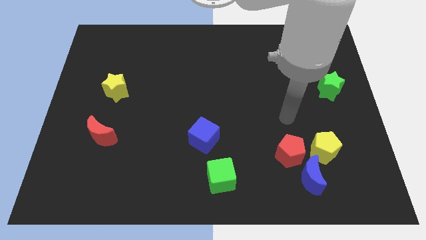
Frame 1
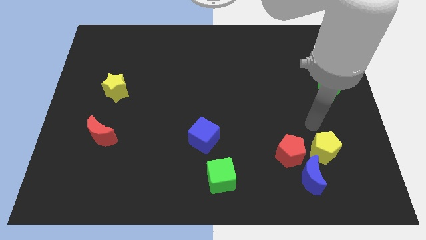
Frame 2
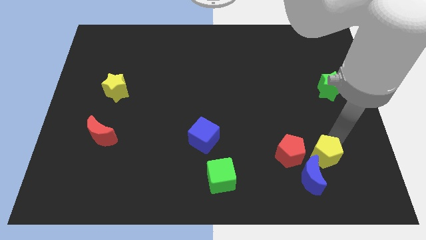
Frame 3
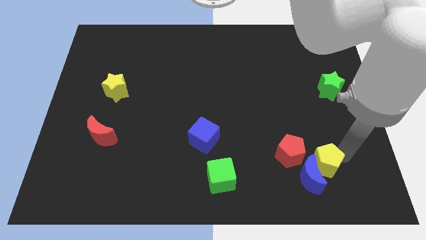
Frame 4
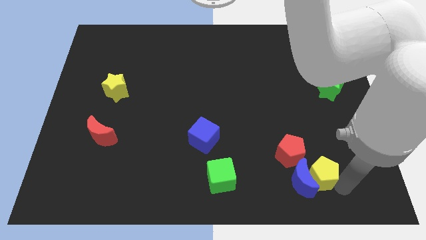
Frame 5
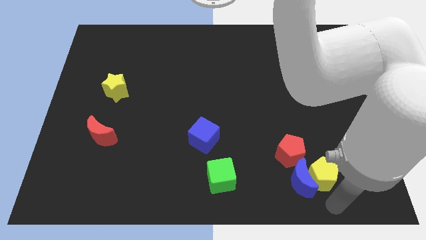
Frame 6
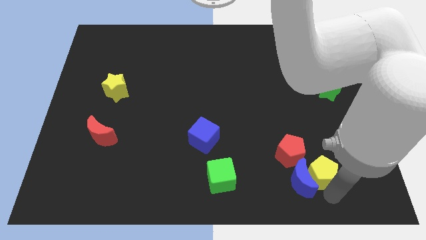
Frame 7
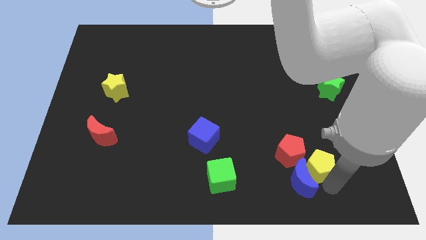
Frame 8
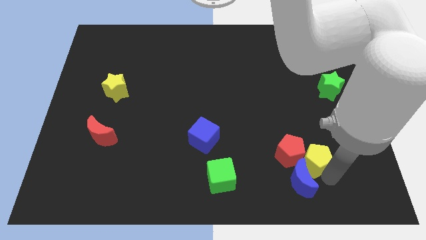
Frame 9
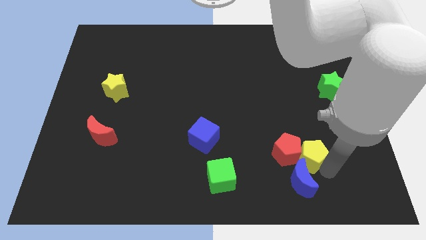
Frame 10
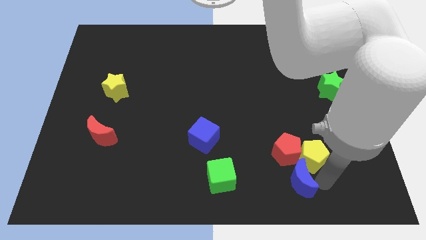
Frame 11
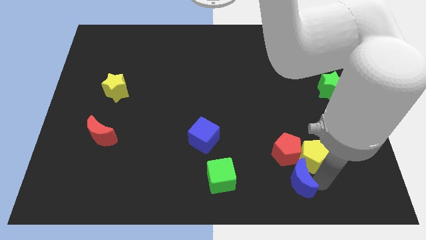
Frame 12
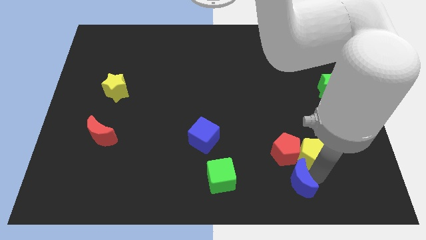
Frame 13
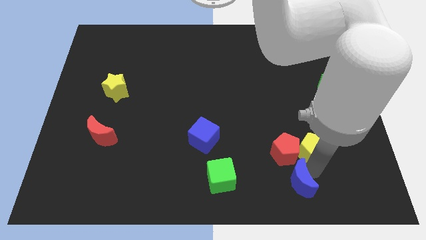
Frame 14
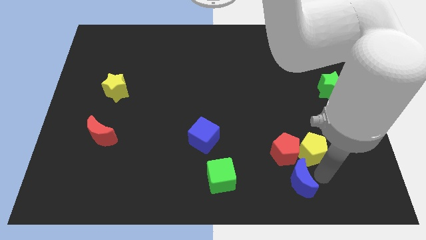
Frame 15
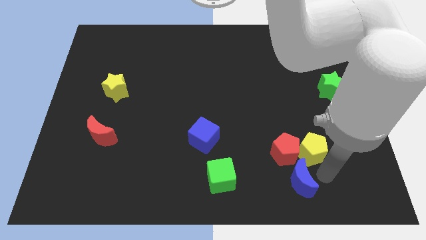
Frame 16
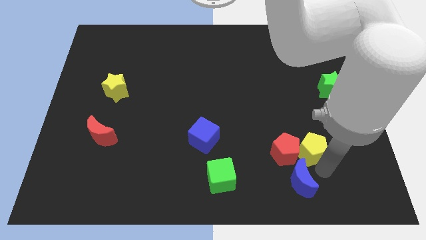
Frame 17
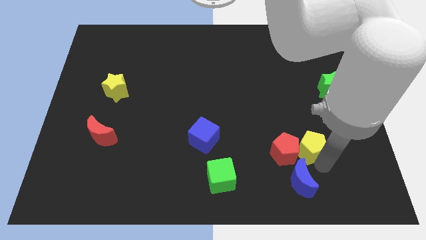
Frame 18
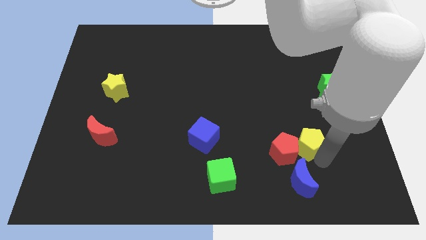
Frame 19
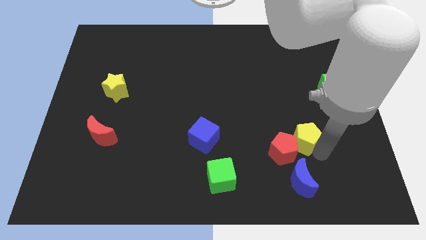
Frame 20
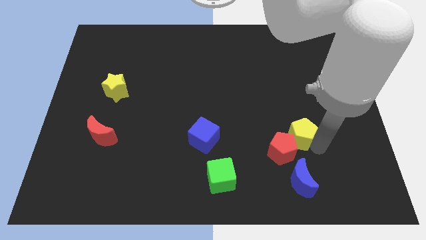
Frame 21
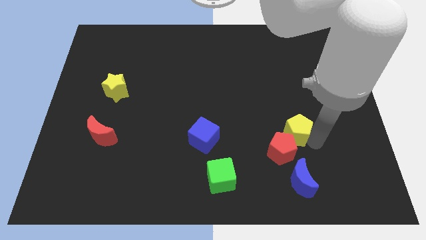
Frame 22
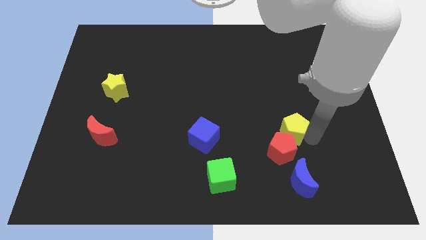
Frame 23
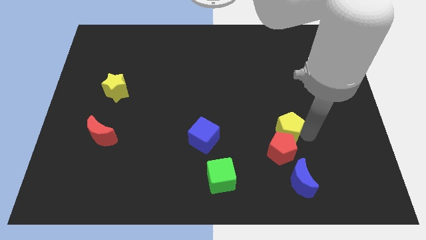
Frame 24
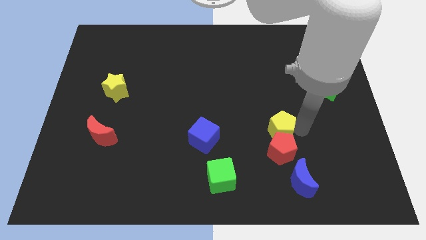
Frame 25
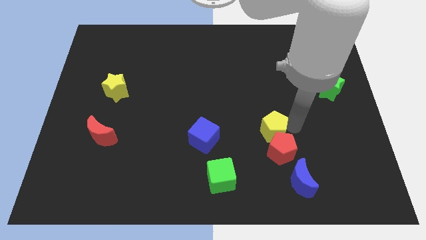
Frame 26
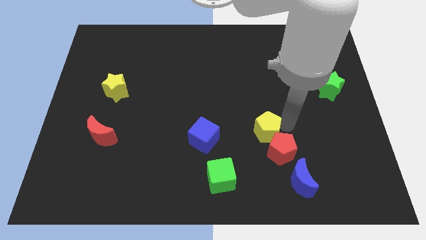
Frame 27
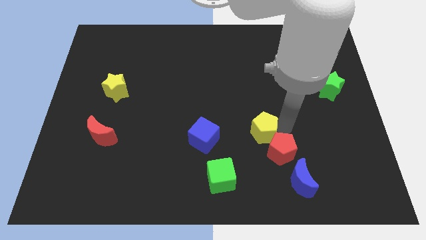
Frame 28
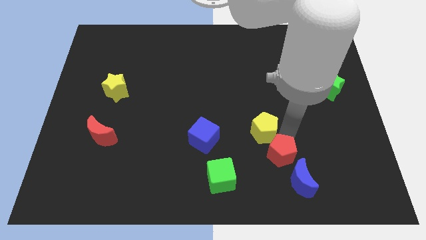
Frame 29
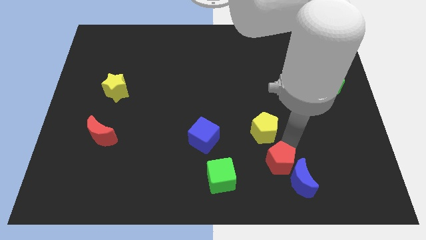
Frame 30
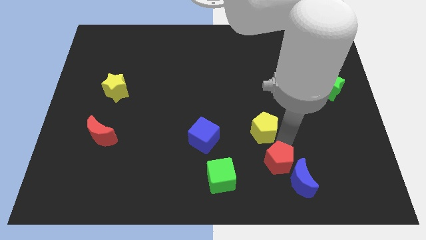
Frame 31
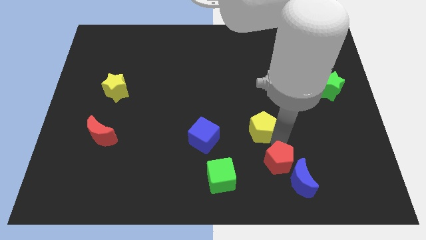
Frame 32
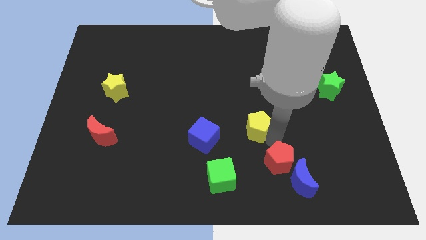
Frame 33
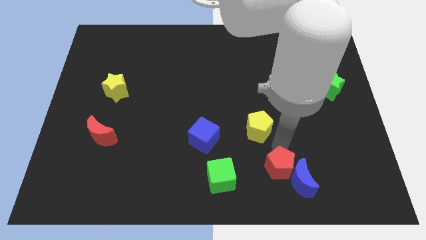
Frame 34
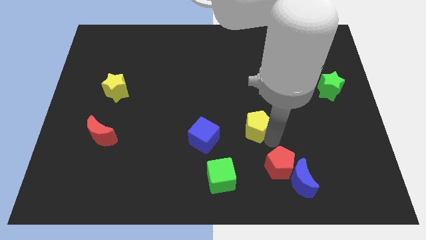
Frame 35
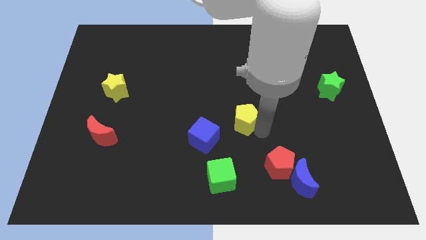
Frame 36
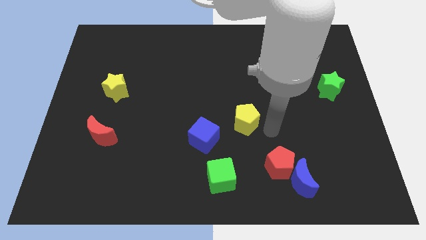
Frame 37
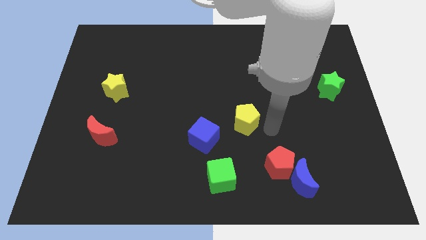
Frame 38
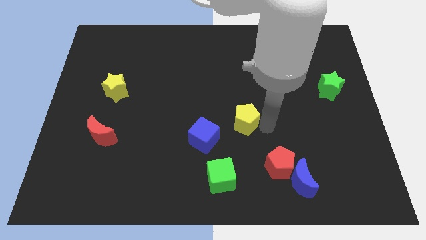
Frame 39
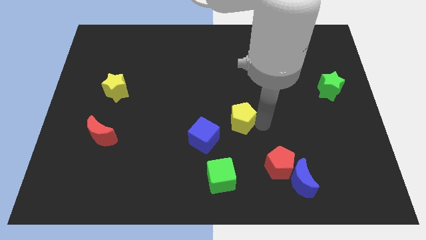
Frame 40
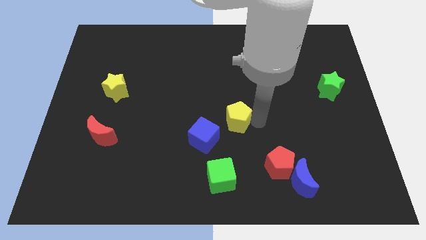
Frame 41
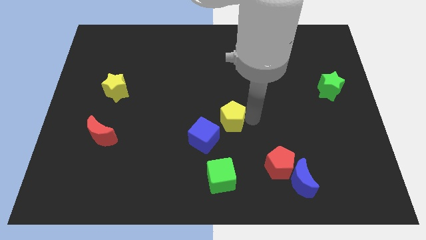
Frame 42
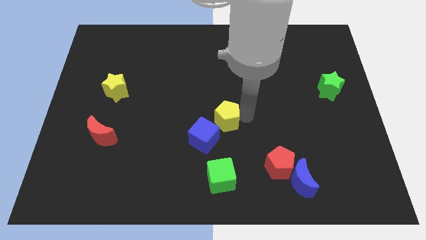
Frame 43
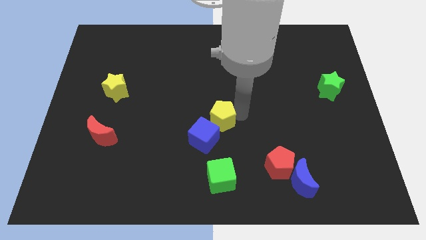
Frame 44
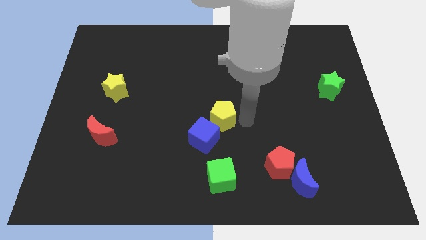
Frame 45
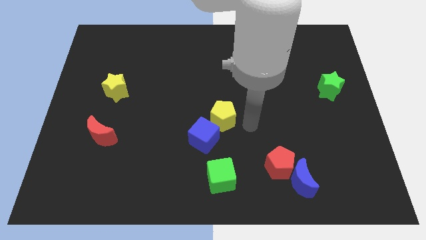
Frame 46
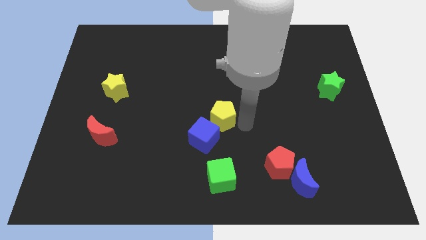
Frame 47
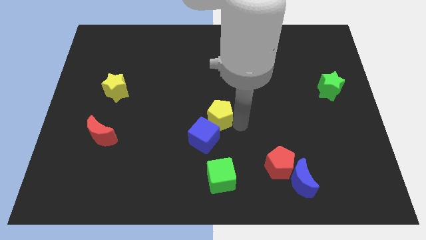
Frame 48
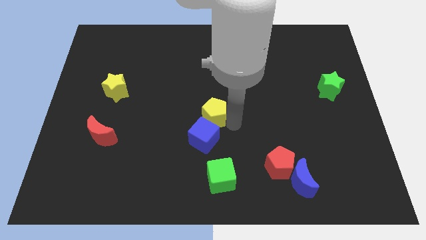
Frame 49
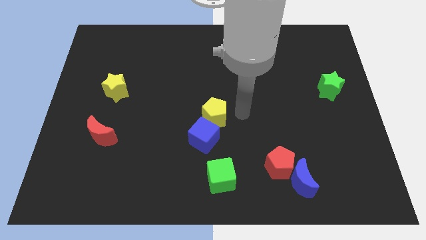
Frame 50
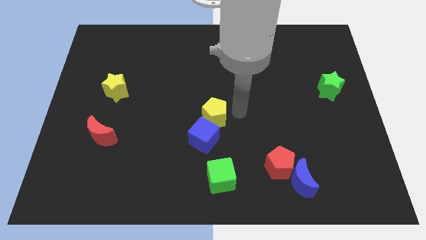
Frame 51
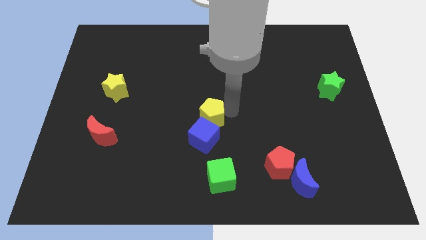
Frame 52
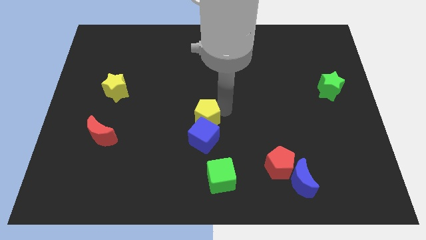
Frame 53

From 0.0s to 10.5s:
push the yellow pentagon to the top left of the blue cube

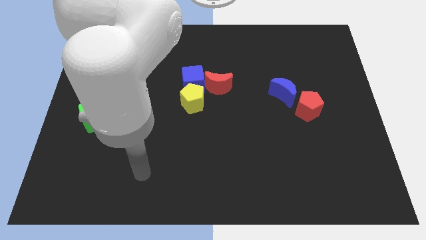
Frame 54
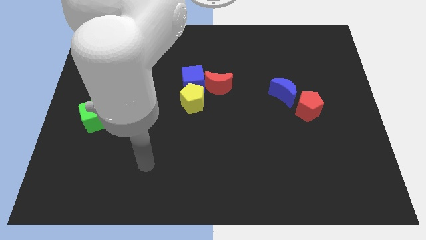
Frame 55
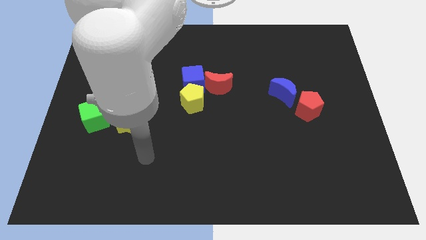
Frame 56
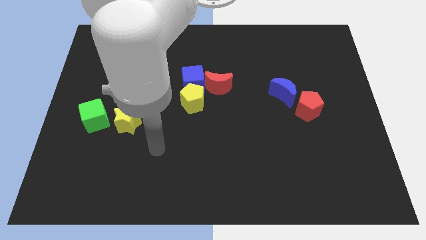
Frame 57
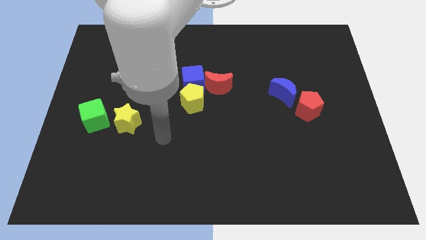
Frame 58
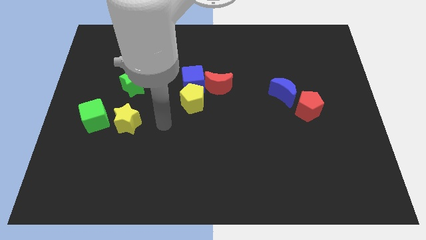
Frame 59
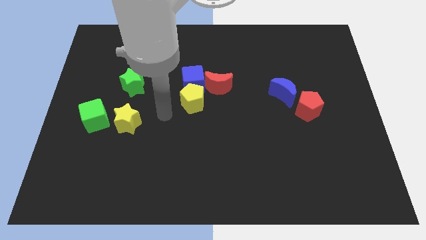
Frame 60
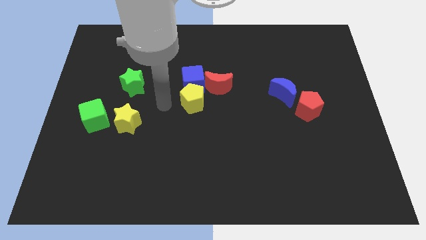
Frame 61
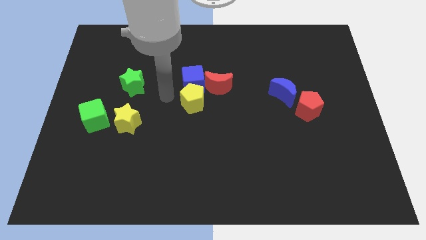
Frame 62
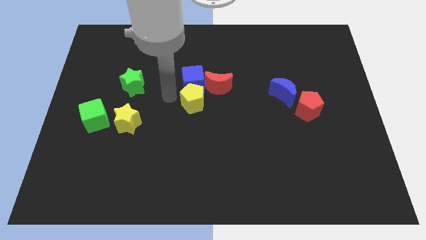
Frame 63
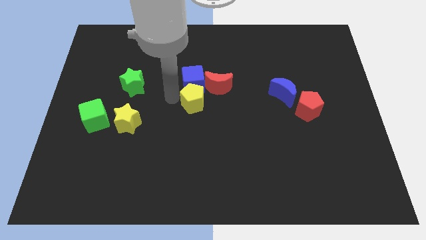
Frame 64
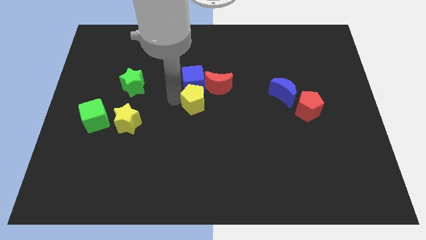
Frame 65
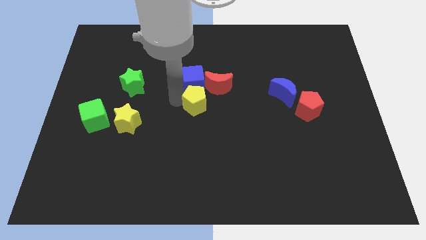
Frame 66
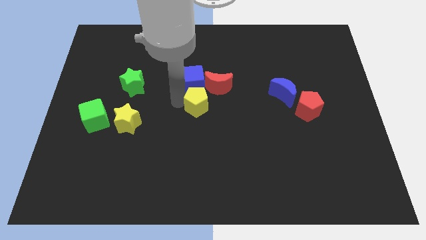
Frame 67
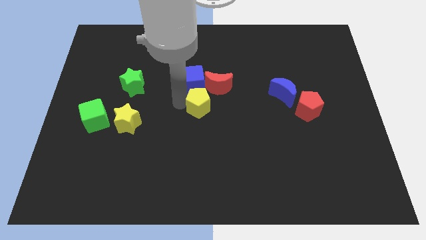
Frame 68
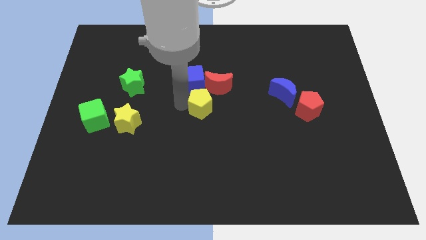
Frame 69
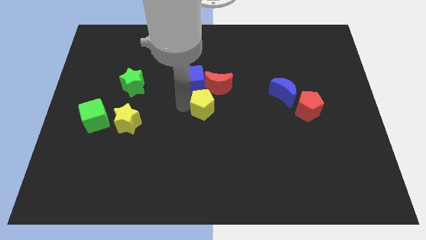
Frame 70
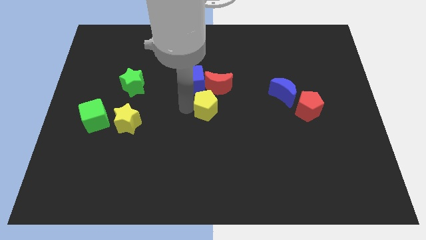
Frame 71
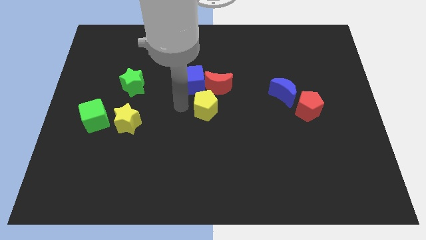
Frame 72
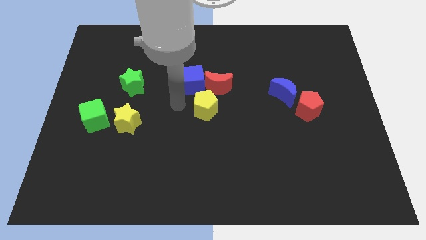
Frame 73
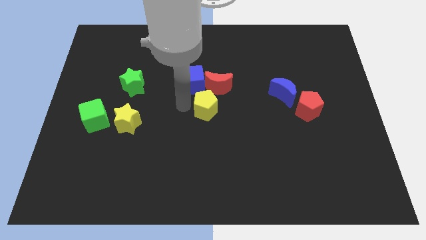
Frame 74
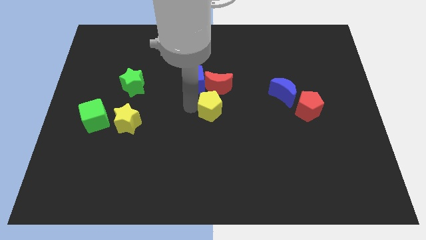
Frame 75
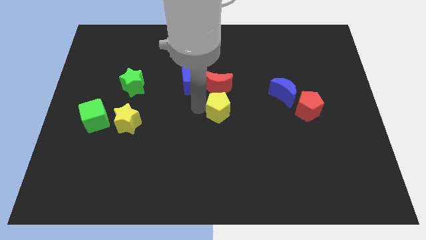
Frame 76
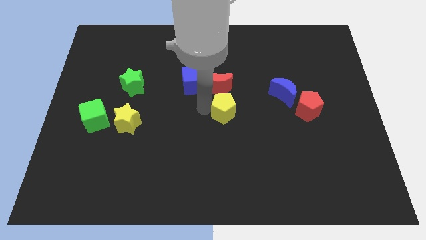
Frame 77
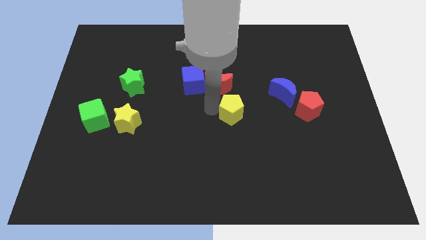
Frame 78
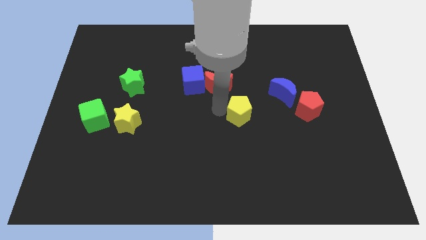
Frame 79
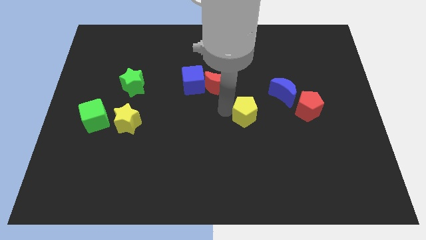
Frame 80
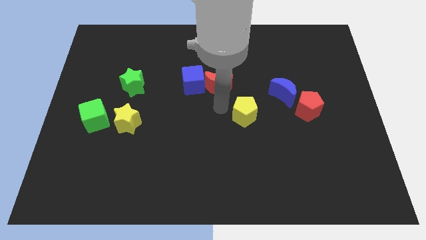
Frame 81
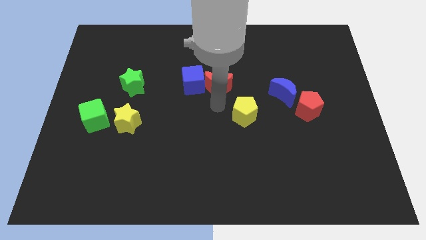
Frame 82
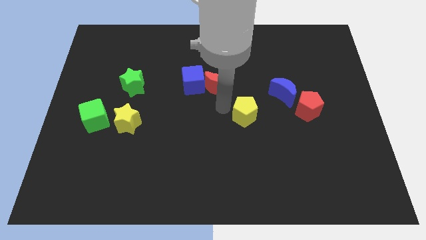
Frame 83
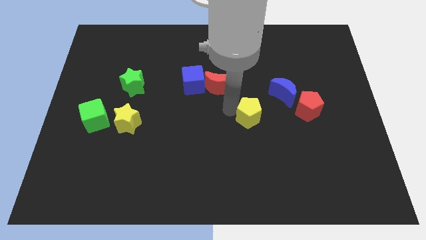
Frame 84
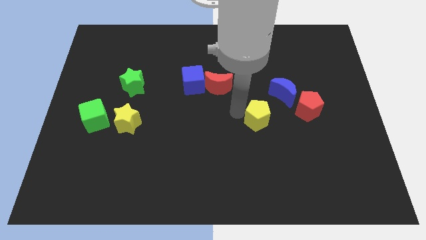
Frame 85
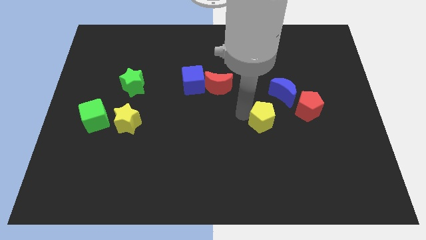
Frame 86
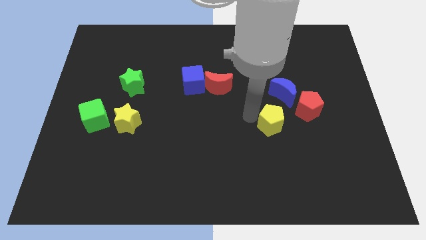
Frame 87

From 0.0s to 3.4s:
slide the yellow pentagon to the bottom of the blue moon
